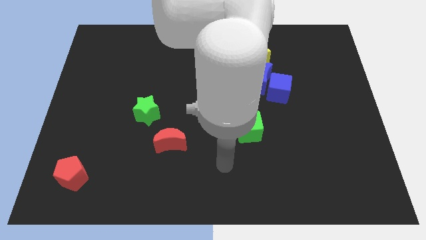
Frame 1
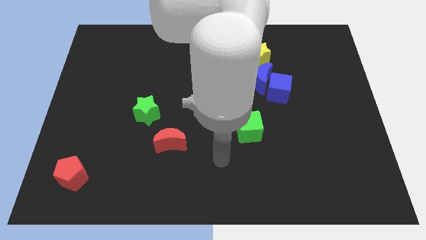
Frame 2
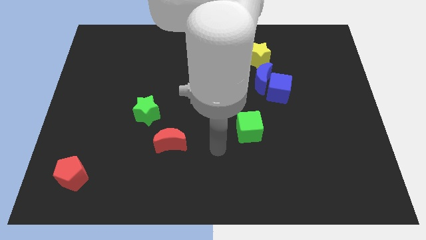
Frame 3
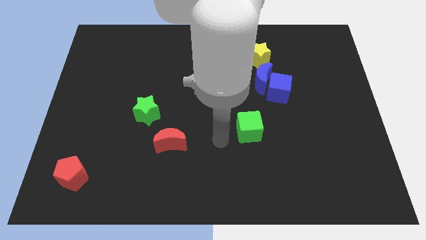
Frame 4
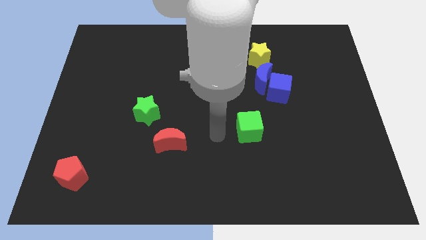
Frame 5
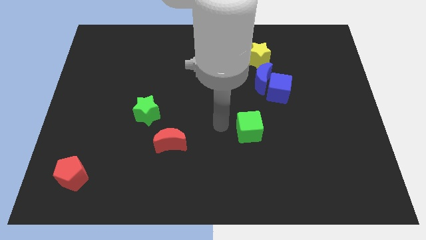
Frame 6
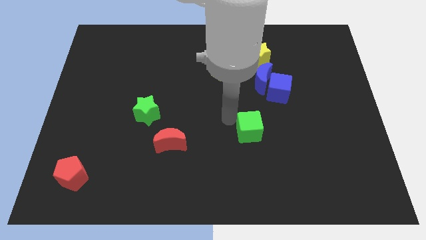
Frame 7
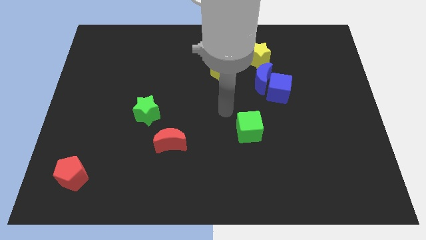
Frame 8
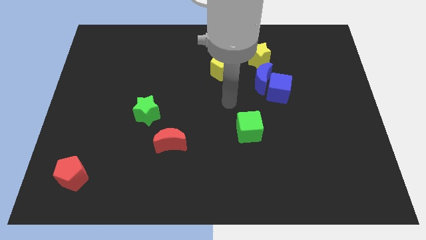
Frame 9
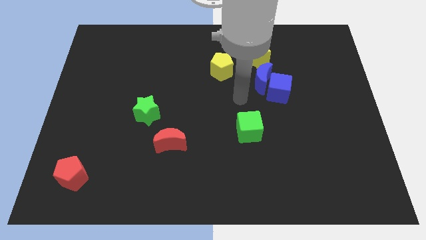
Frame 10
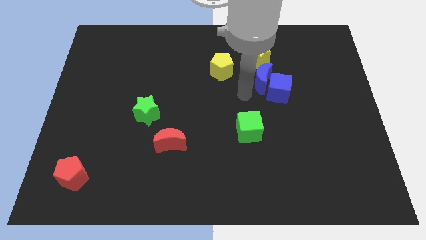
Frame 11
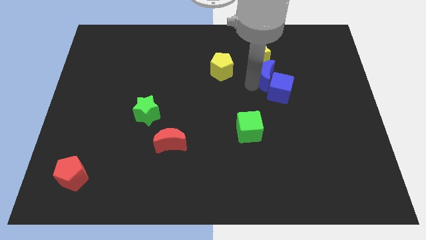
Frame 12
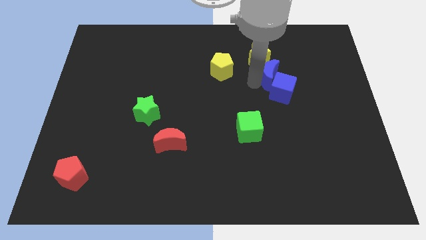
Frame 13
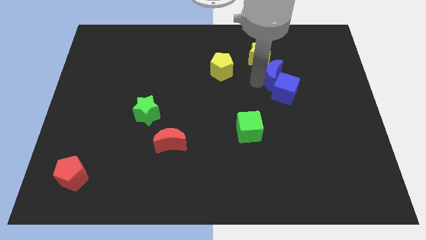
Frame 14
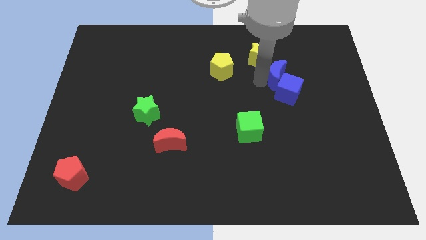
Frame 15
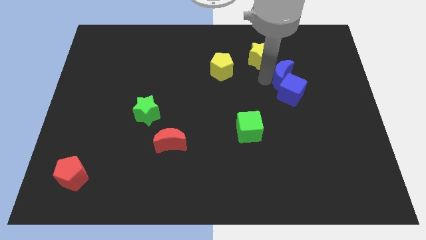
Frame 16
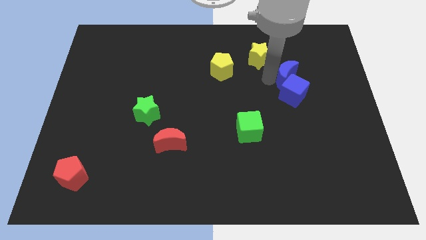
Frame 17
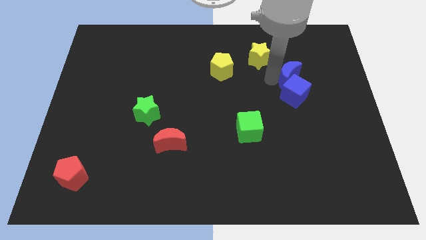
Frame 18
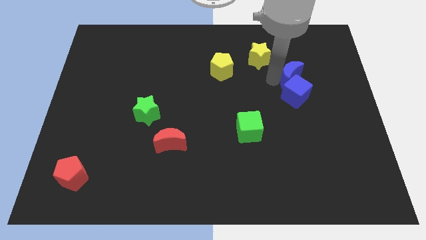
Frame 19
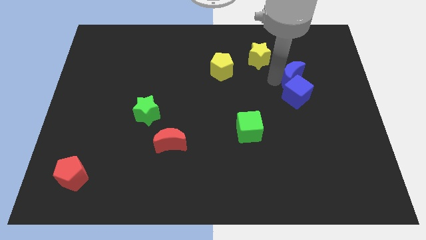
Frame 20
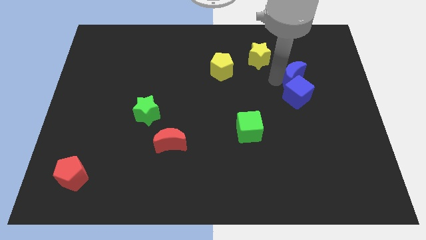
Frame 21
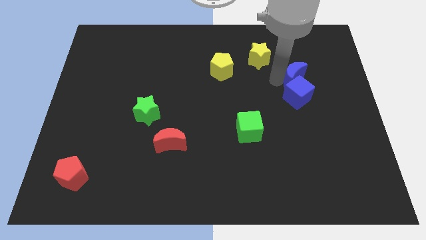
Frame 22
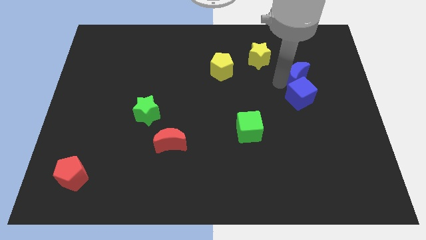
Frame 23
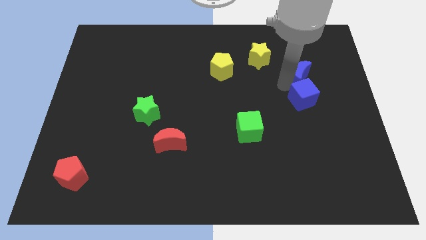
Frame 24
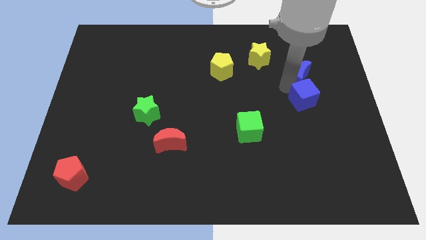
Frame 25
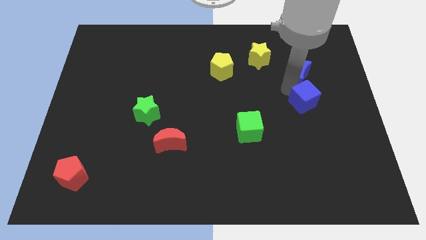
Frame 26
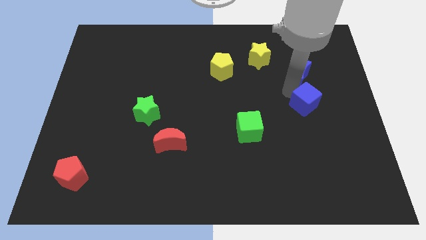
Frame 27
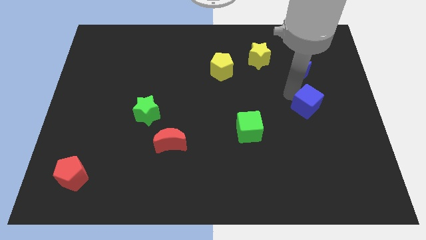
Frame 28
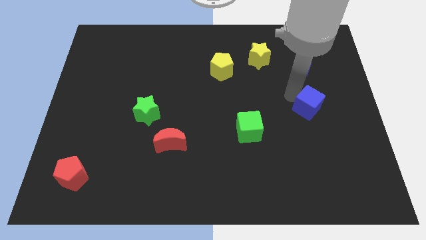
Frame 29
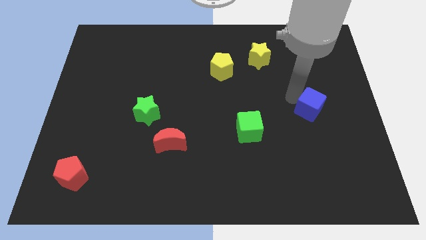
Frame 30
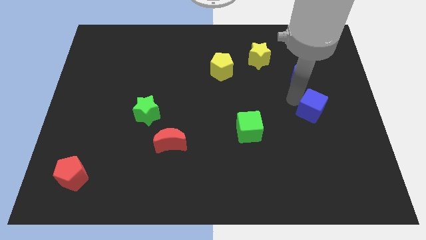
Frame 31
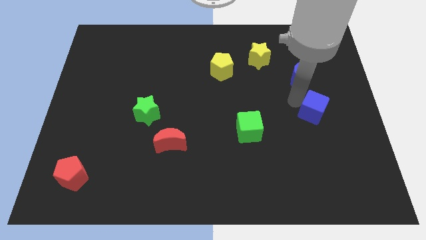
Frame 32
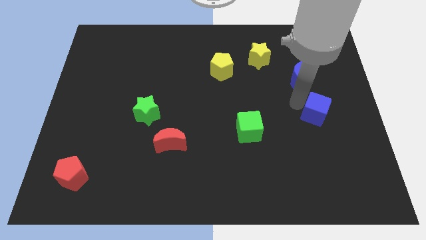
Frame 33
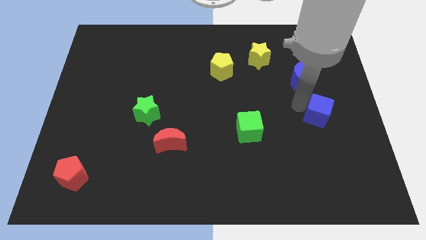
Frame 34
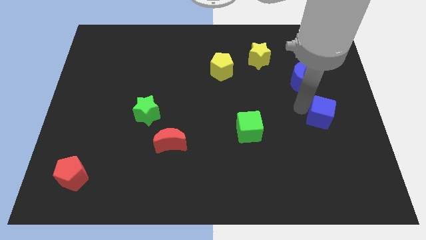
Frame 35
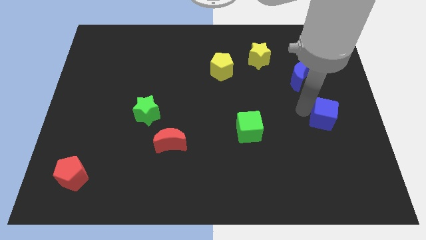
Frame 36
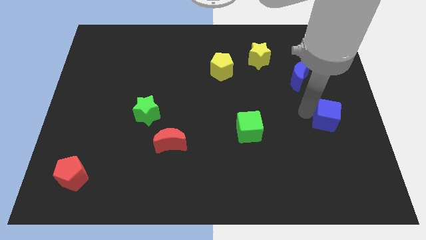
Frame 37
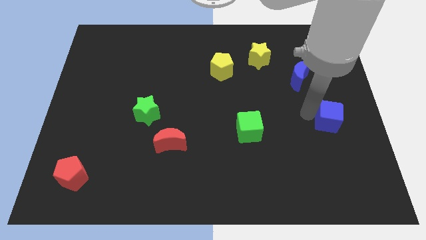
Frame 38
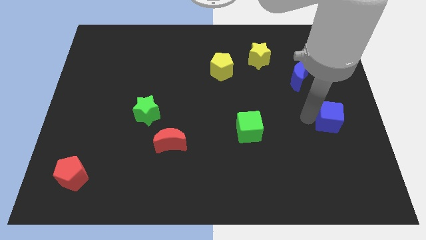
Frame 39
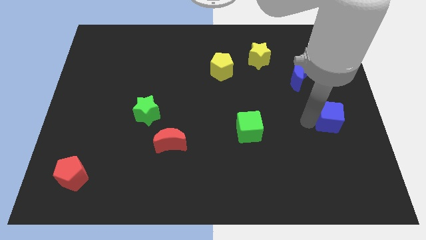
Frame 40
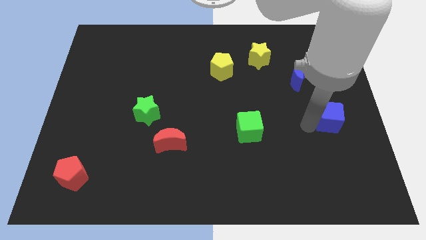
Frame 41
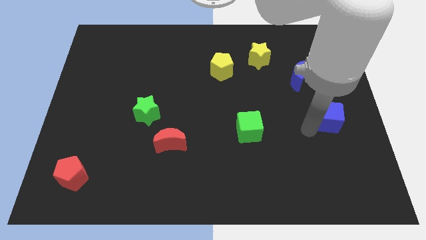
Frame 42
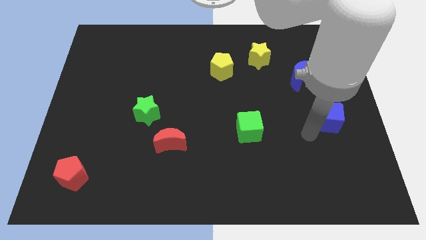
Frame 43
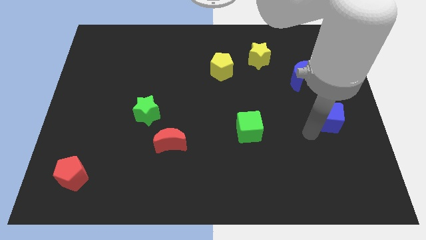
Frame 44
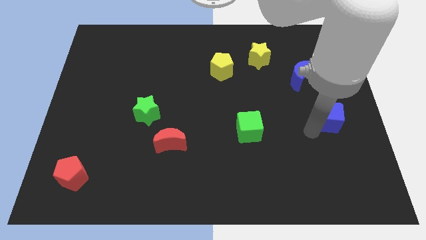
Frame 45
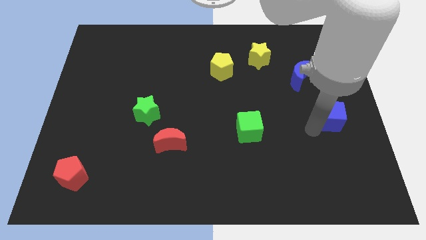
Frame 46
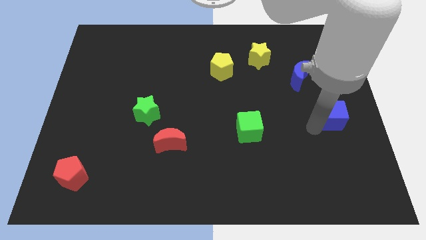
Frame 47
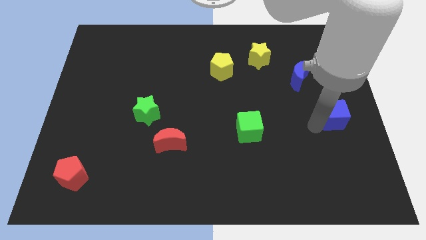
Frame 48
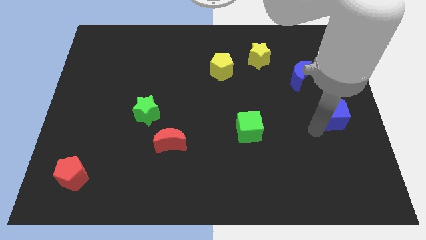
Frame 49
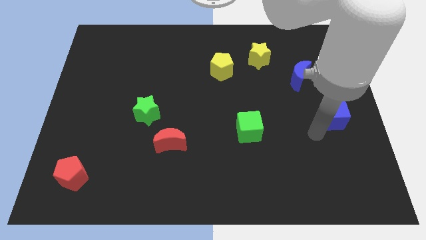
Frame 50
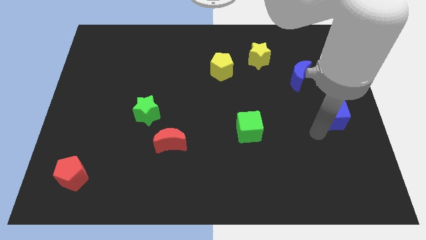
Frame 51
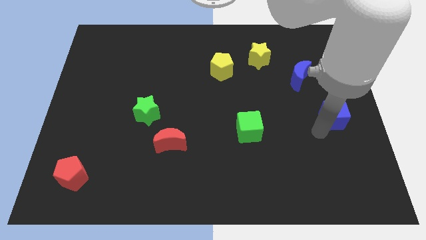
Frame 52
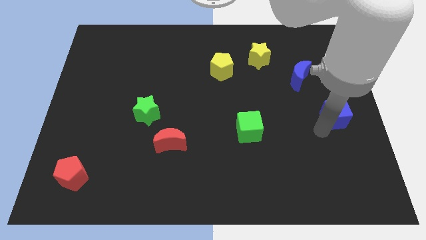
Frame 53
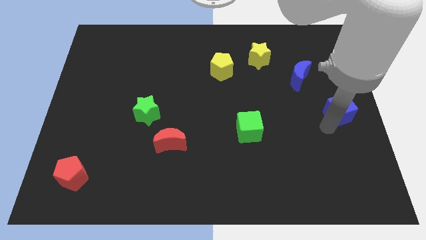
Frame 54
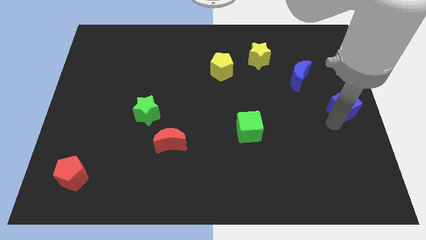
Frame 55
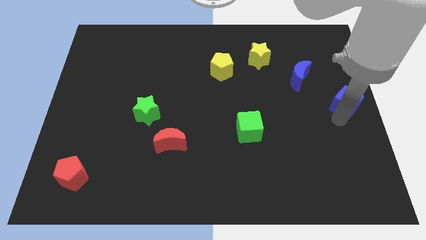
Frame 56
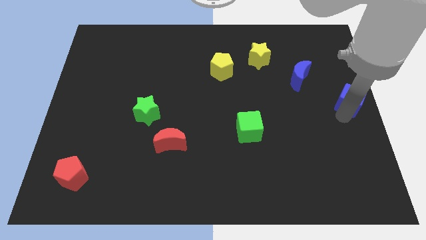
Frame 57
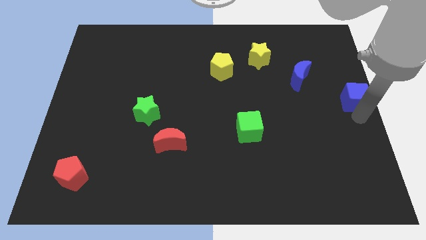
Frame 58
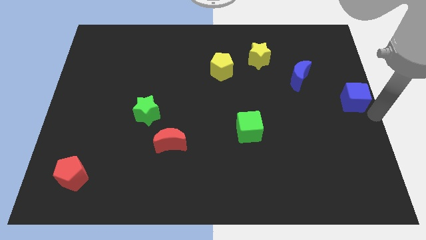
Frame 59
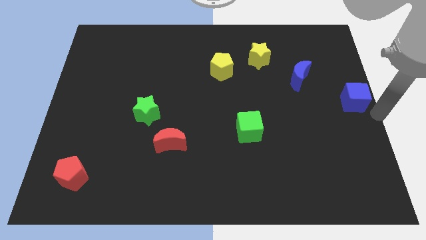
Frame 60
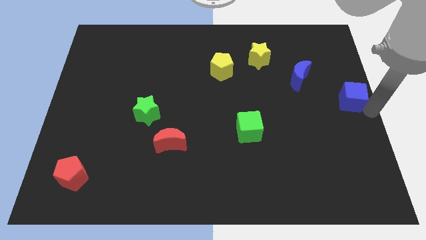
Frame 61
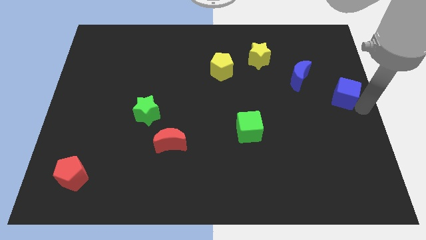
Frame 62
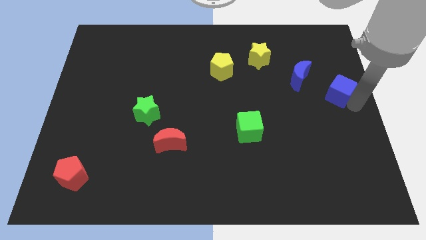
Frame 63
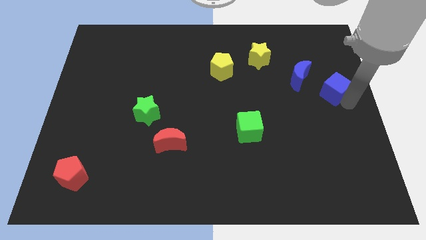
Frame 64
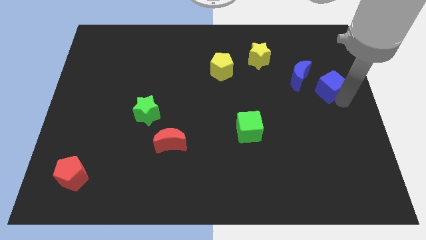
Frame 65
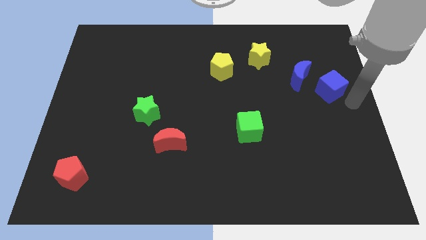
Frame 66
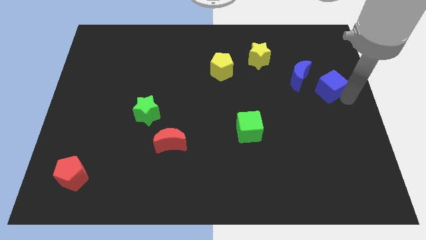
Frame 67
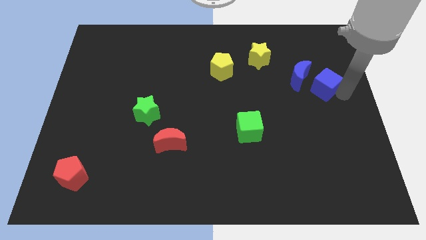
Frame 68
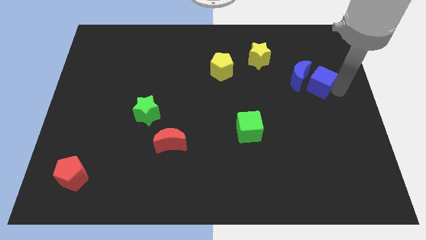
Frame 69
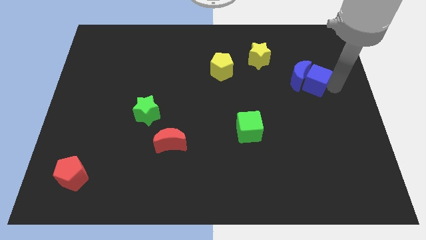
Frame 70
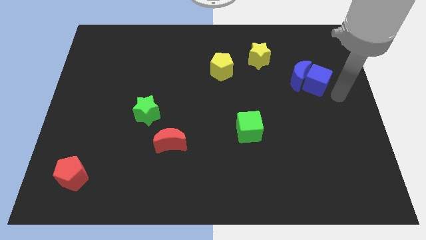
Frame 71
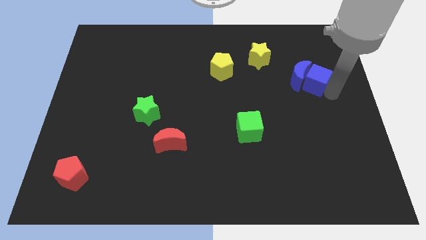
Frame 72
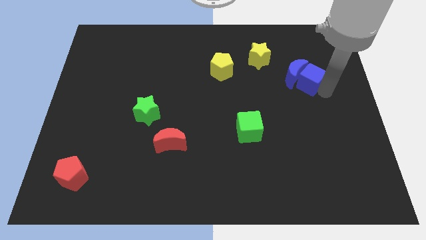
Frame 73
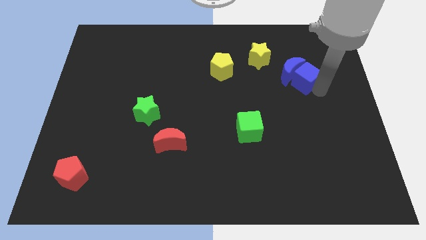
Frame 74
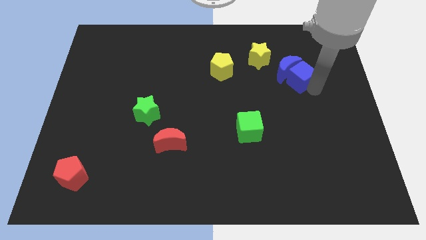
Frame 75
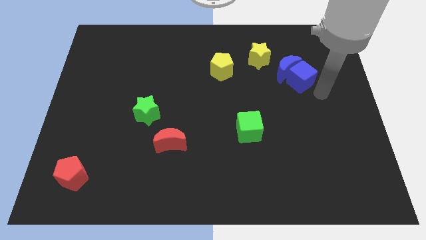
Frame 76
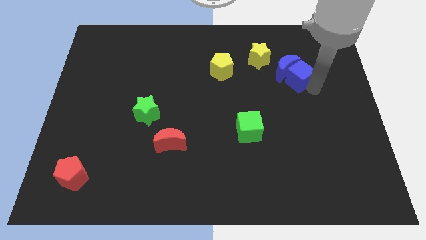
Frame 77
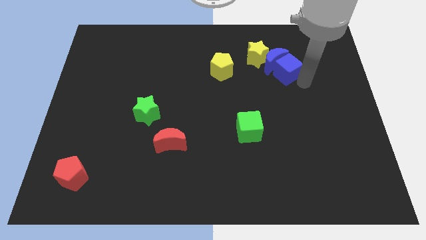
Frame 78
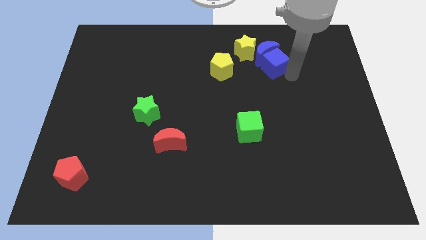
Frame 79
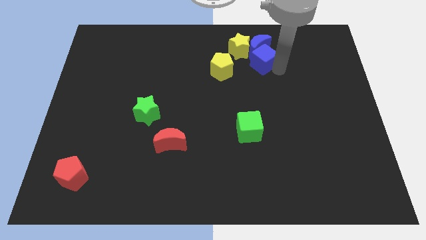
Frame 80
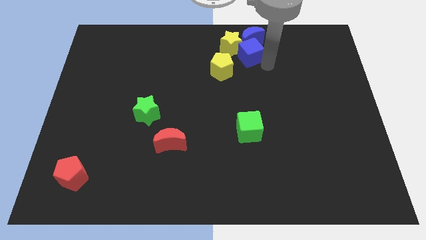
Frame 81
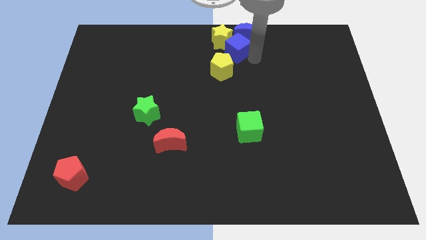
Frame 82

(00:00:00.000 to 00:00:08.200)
push the blue cube to the towards your base
